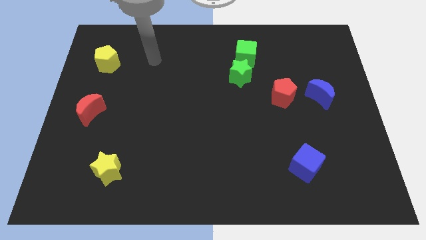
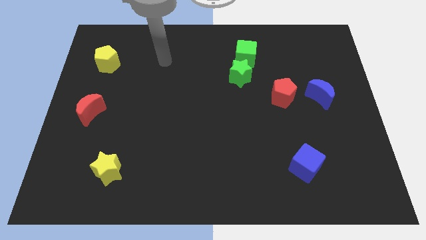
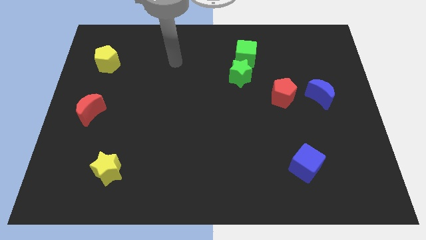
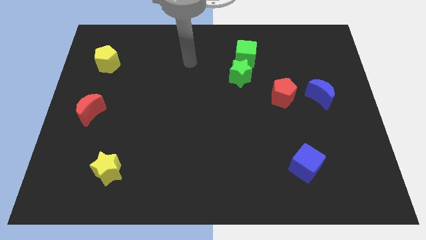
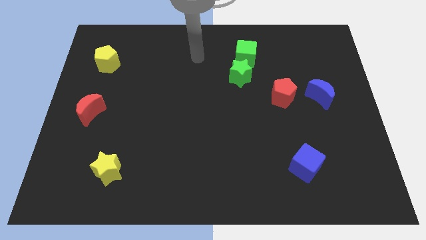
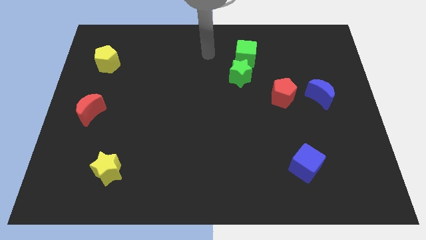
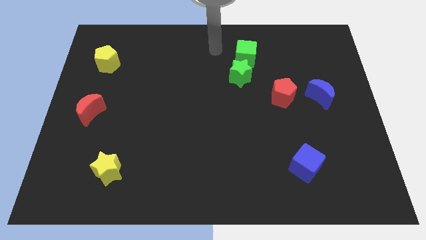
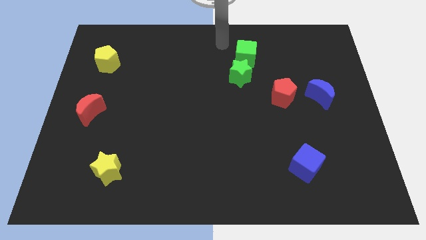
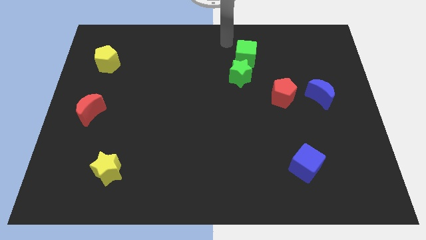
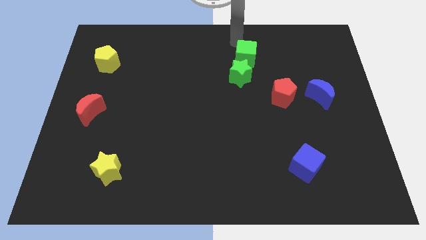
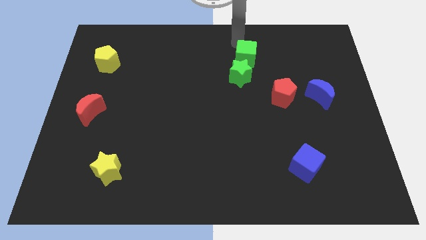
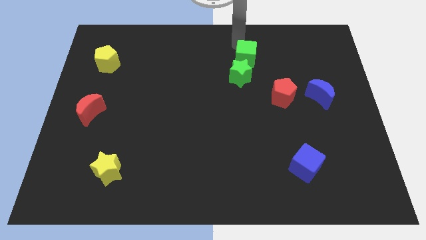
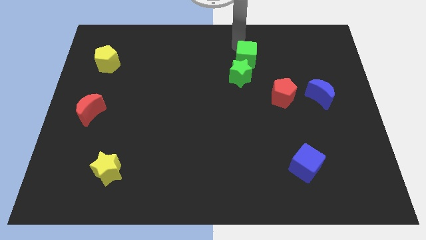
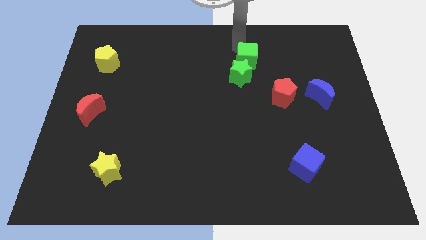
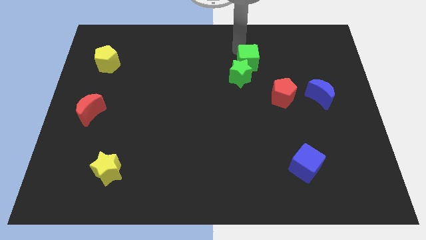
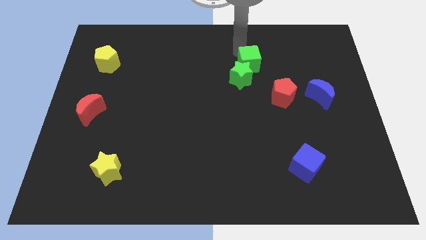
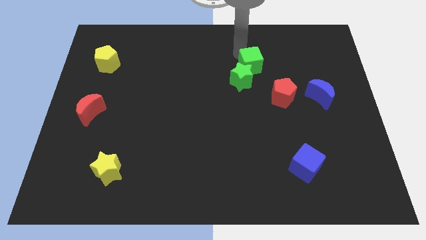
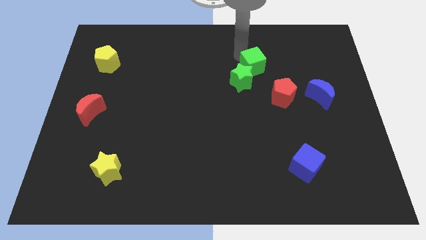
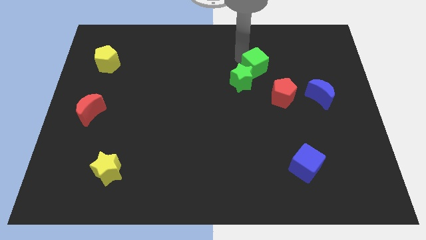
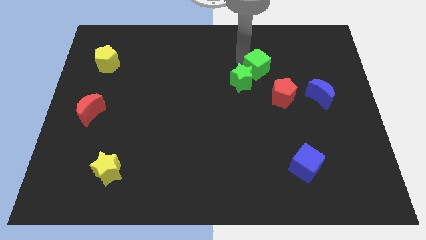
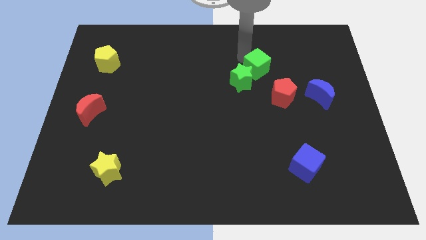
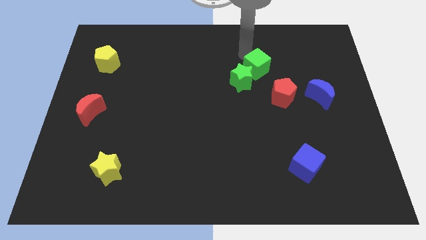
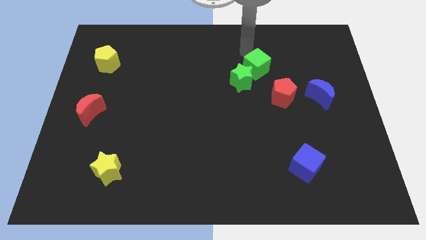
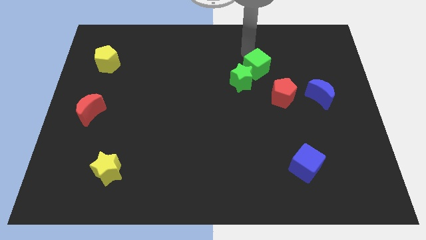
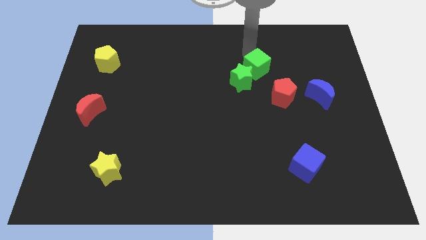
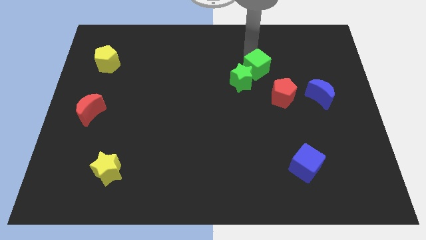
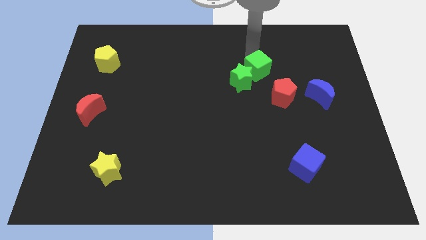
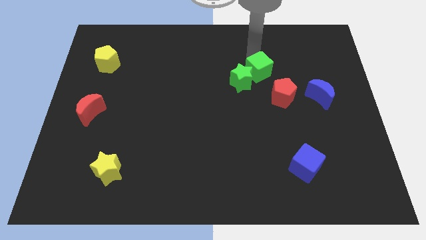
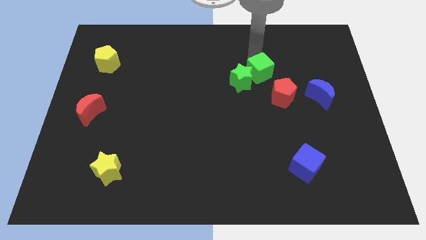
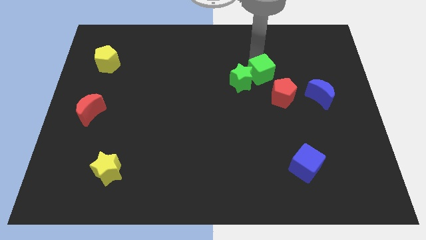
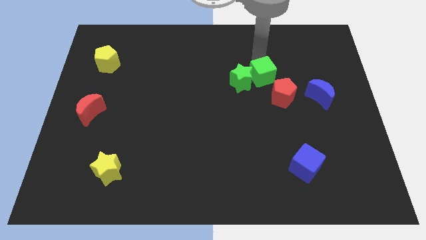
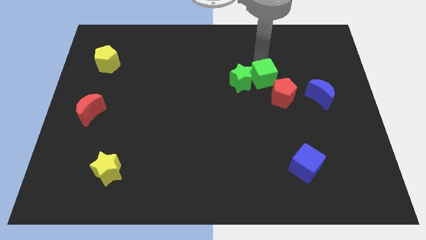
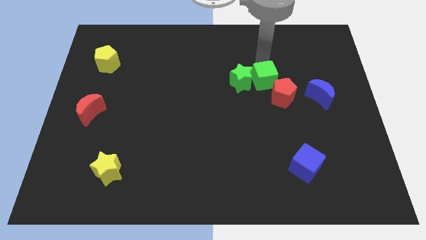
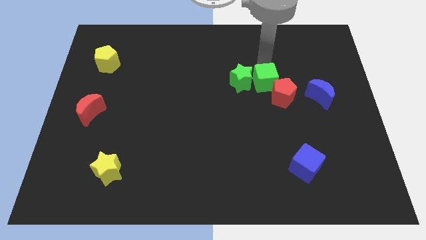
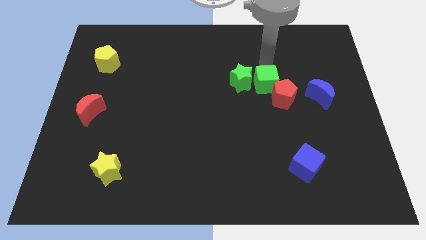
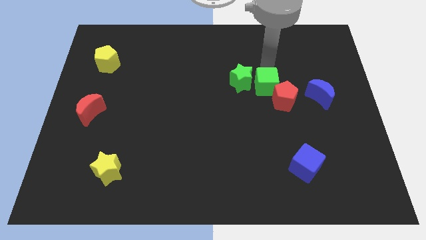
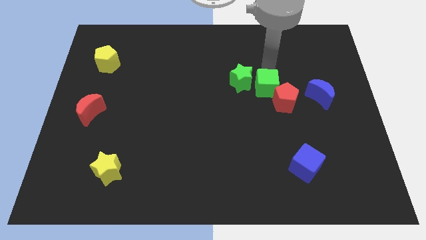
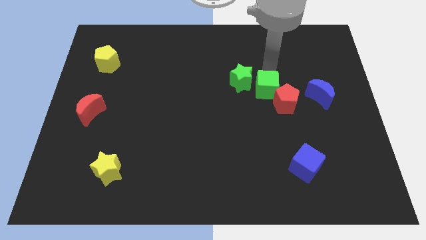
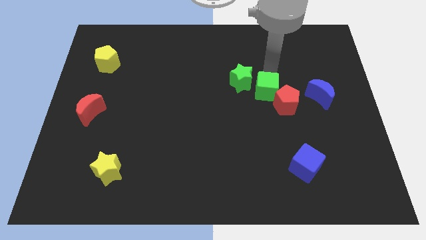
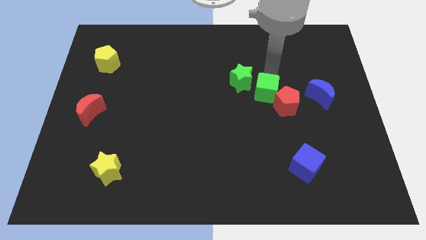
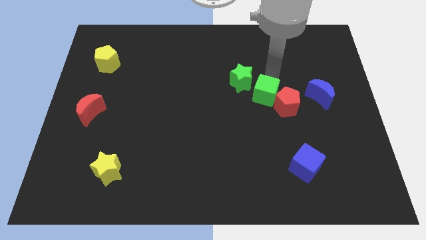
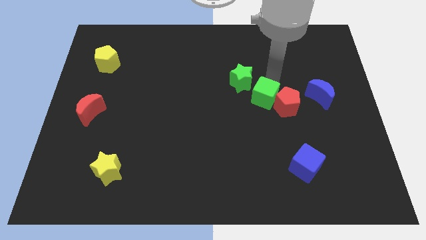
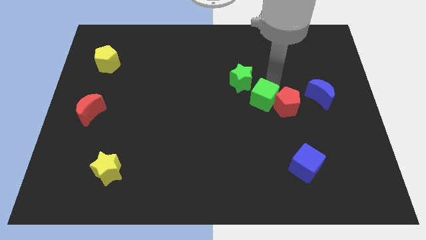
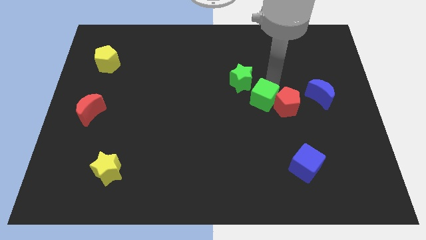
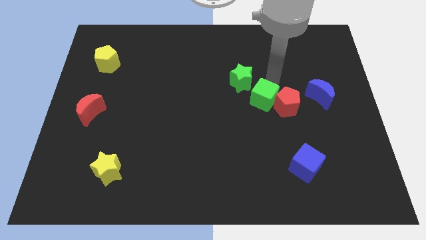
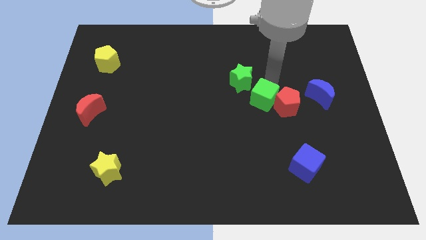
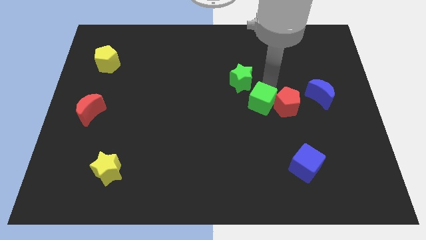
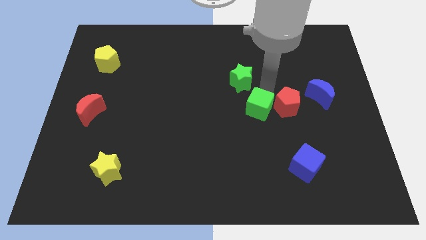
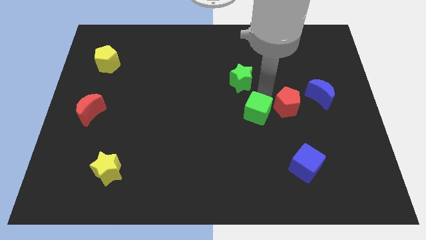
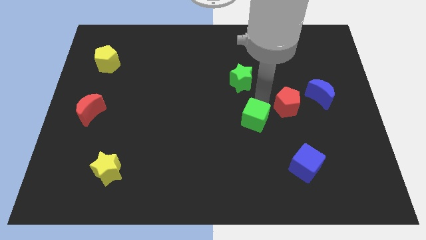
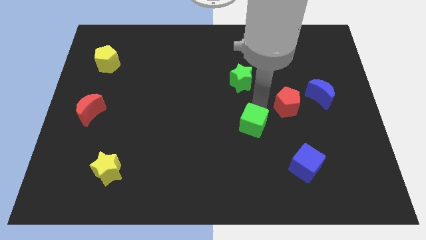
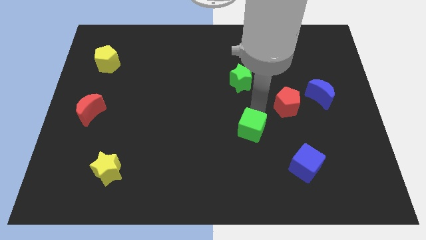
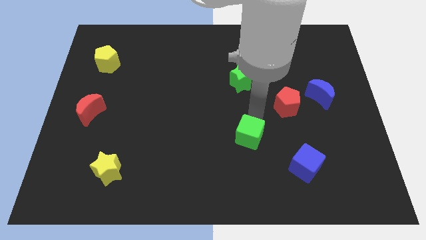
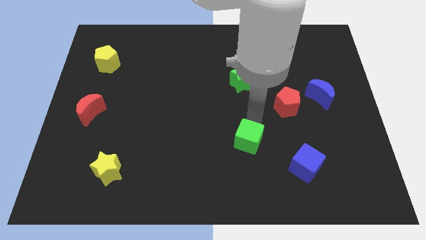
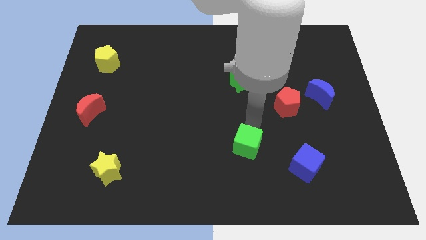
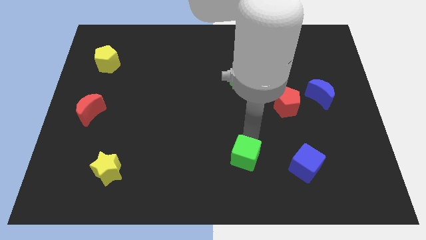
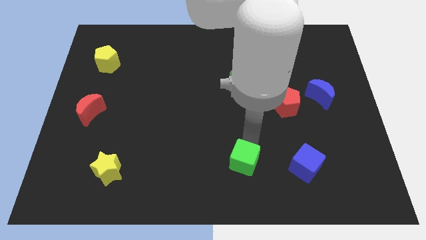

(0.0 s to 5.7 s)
put the green cube to the bottom

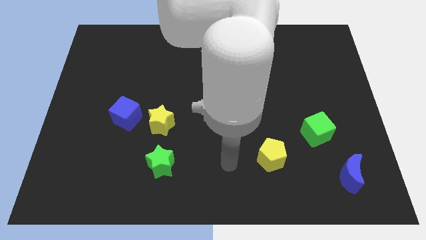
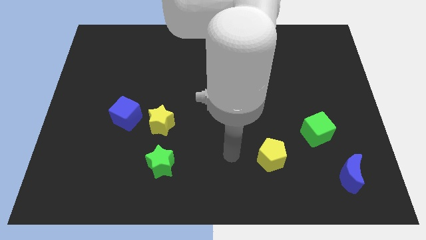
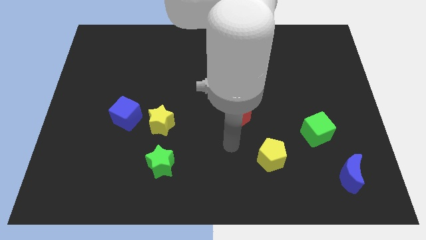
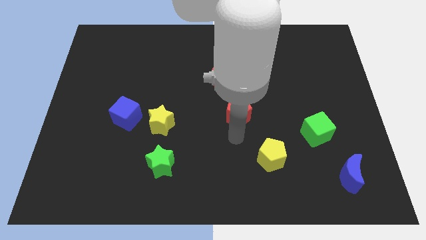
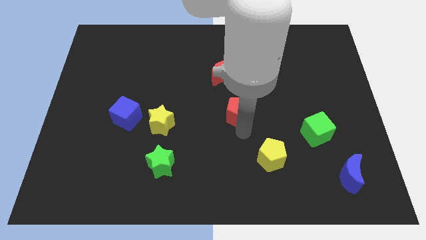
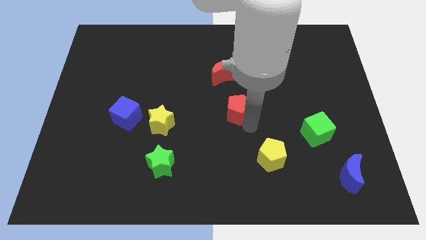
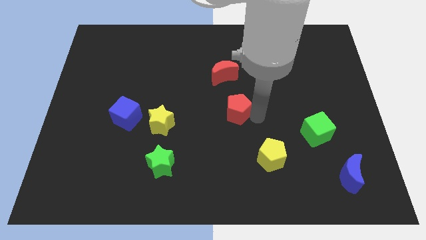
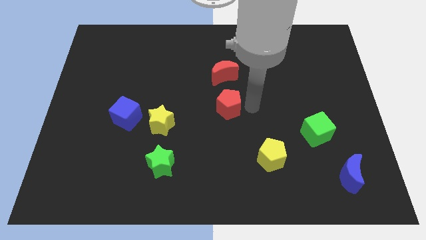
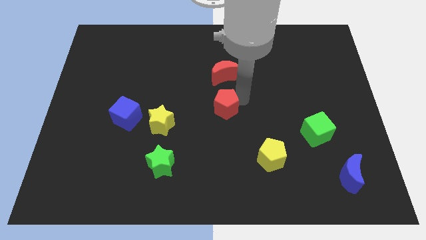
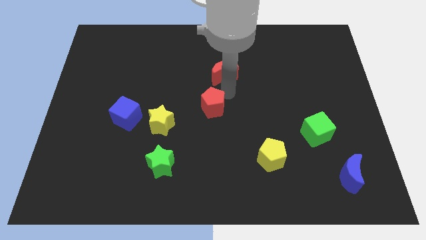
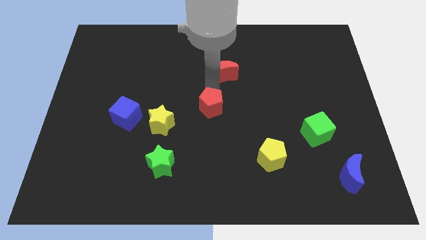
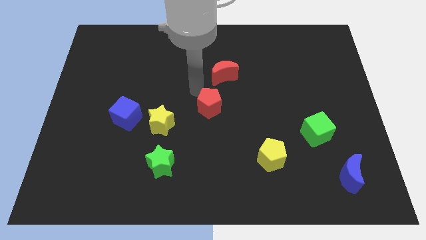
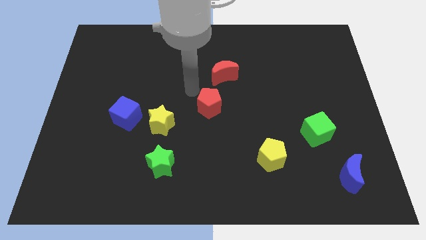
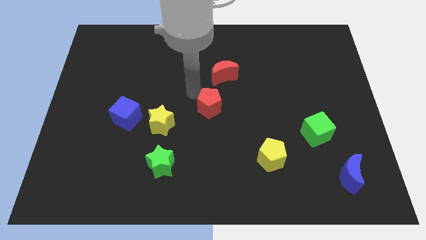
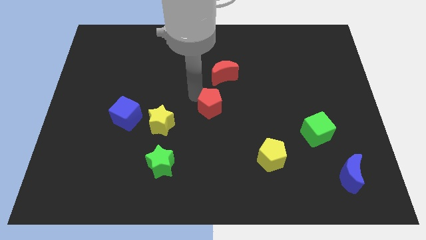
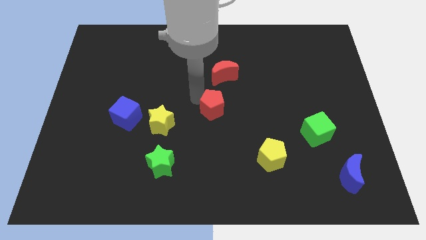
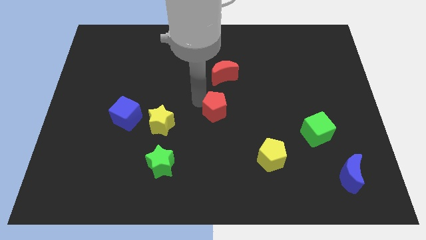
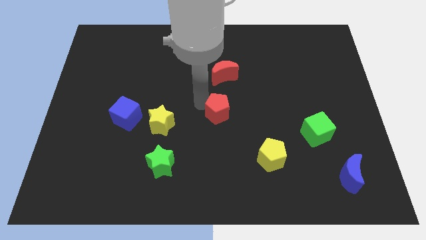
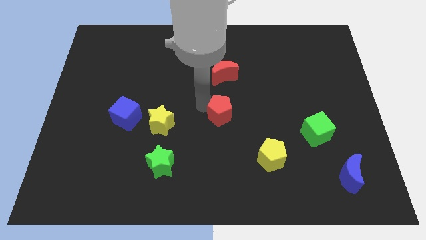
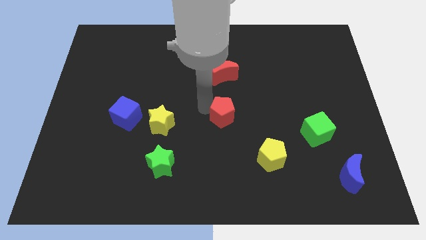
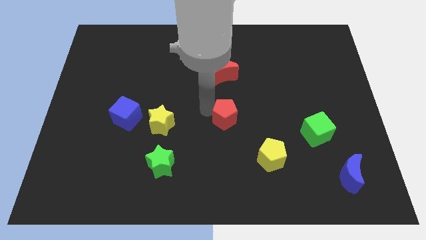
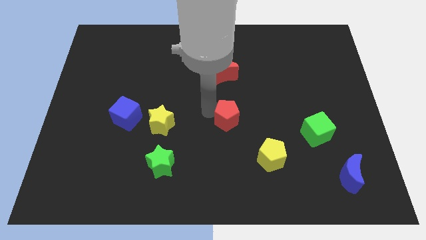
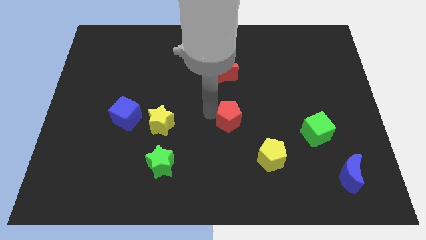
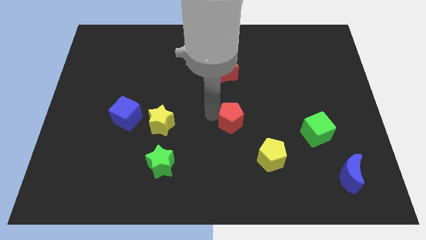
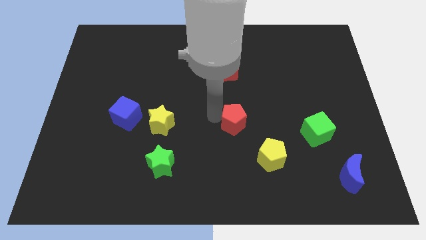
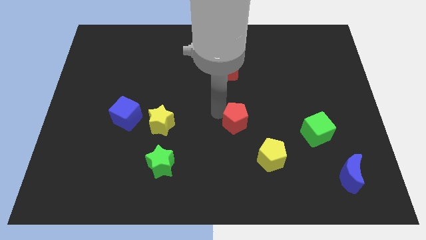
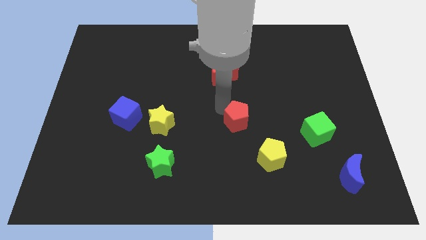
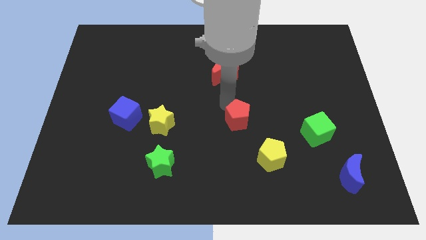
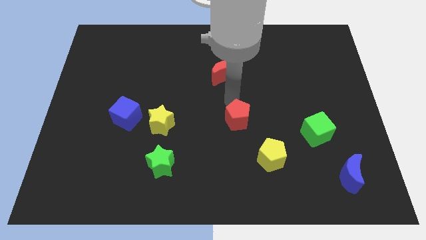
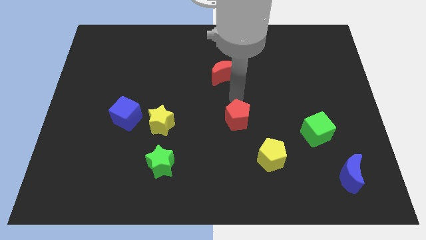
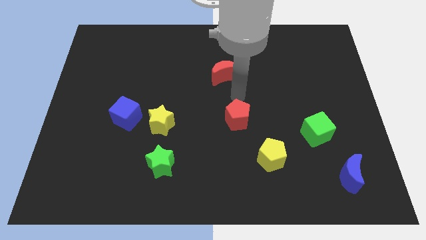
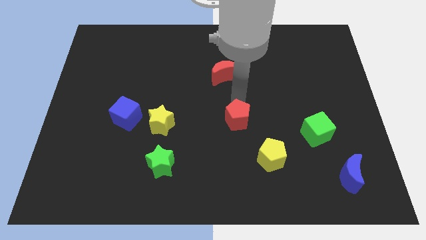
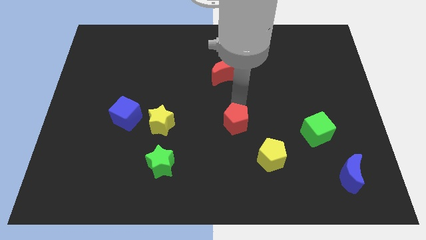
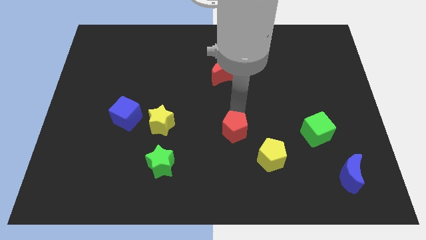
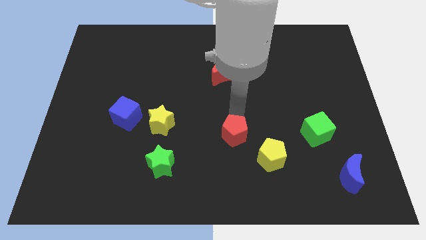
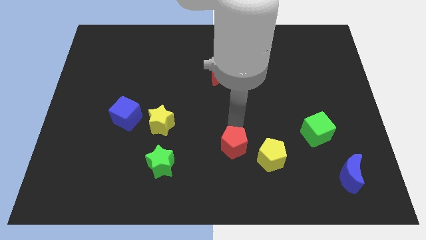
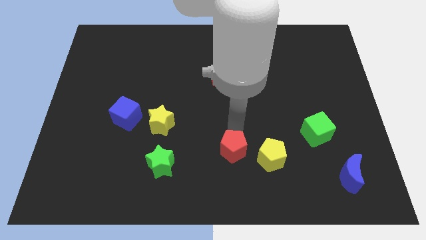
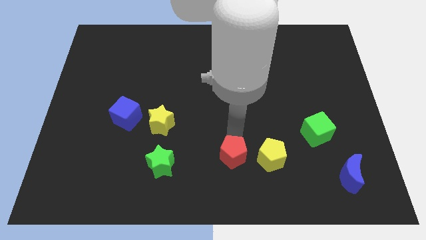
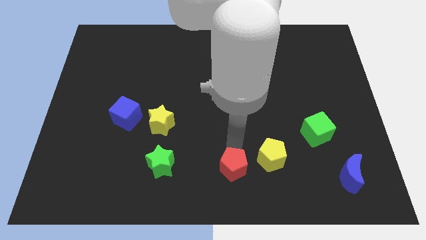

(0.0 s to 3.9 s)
slide the red pentagon to the bottom
